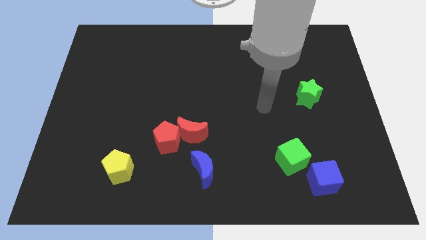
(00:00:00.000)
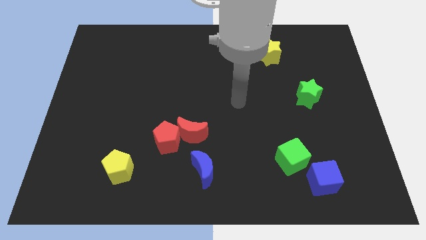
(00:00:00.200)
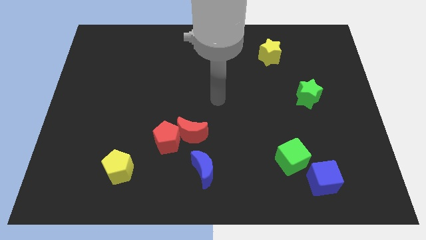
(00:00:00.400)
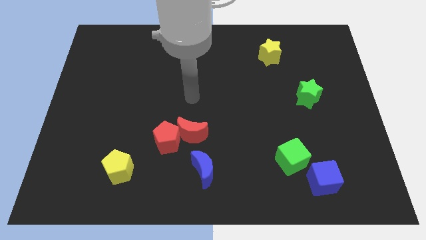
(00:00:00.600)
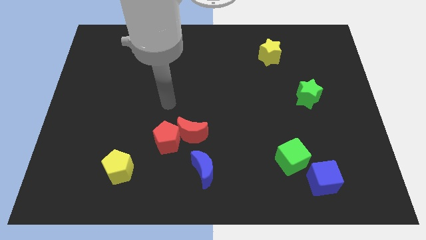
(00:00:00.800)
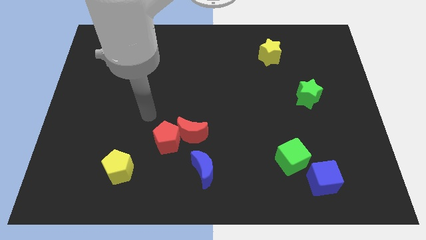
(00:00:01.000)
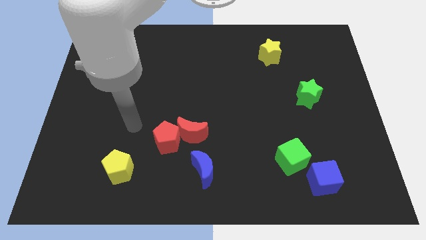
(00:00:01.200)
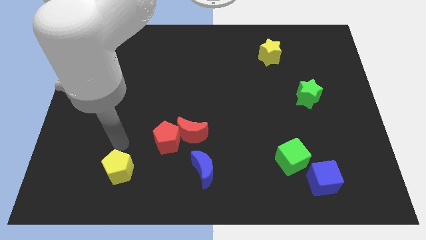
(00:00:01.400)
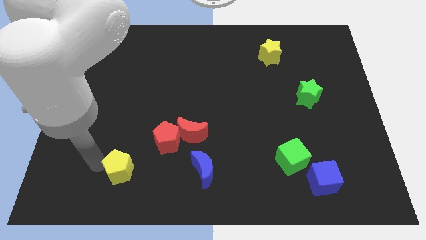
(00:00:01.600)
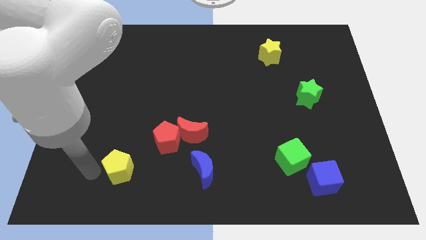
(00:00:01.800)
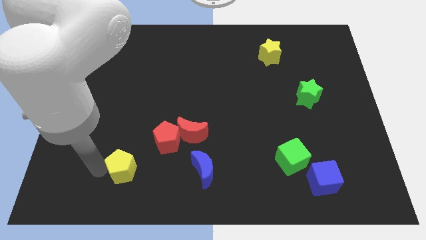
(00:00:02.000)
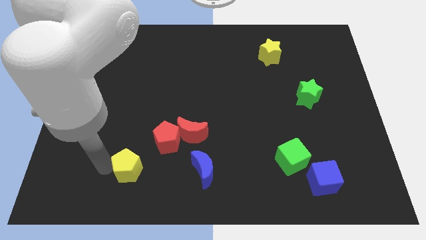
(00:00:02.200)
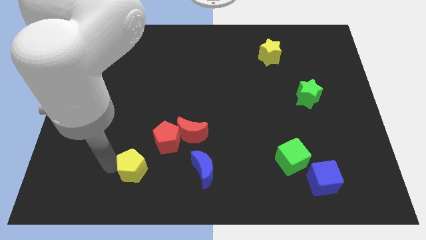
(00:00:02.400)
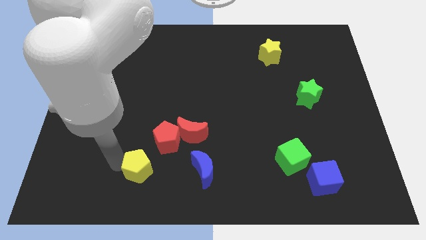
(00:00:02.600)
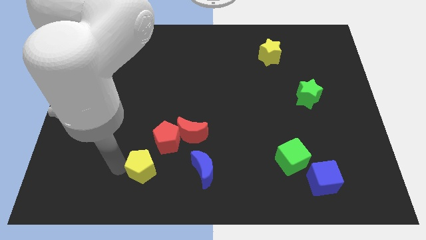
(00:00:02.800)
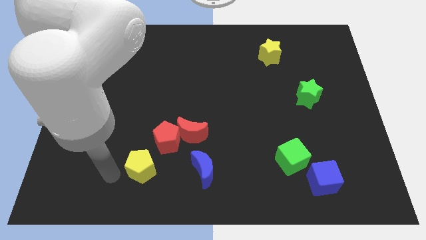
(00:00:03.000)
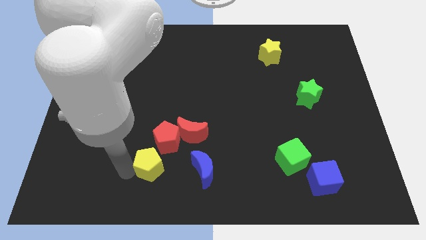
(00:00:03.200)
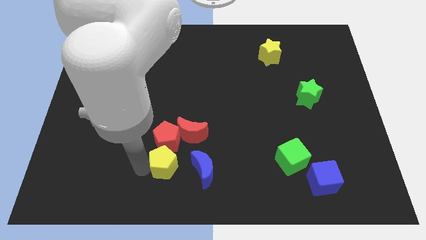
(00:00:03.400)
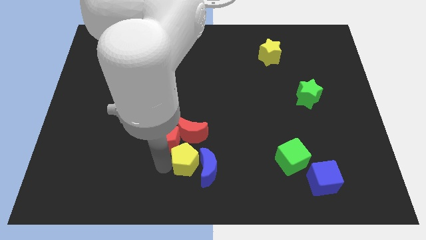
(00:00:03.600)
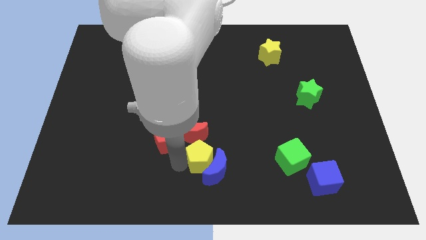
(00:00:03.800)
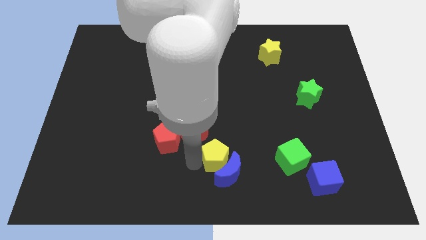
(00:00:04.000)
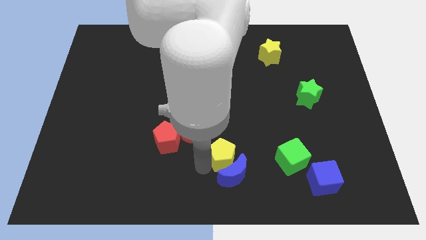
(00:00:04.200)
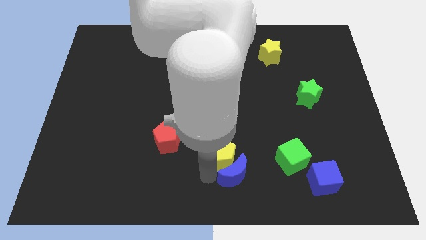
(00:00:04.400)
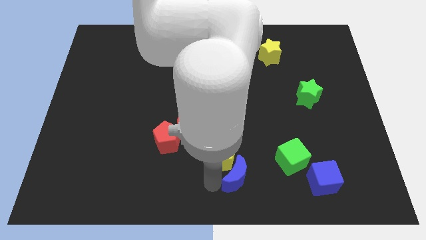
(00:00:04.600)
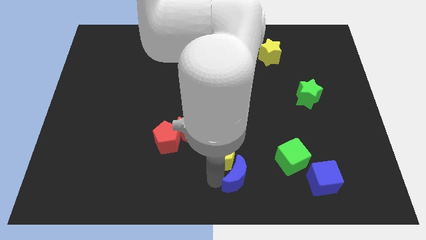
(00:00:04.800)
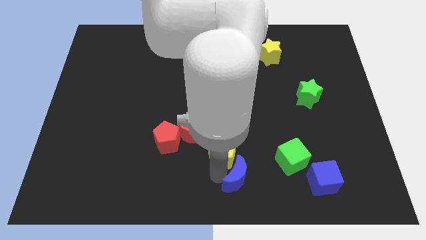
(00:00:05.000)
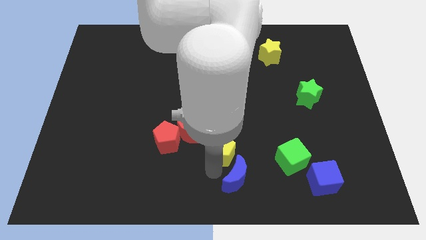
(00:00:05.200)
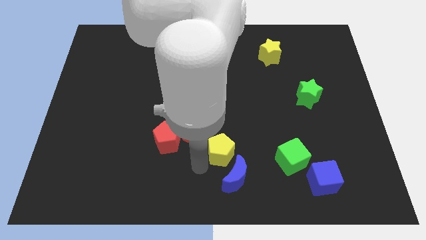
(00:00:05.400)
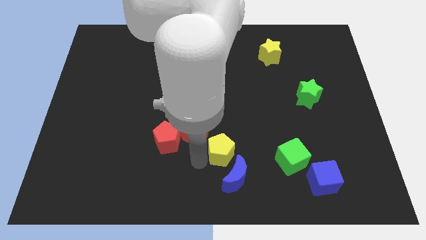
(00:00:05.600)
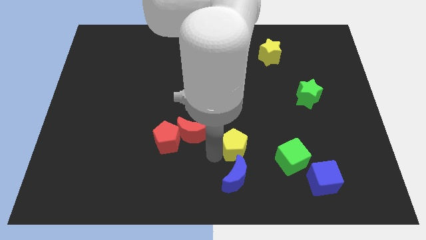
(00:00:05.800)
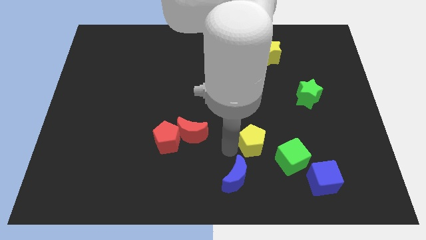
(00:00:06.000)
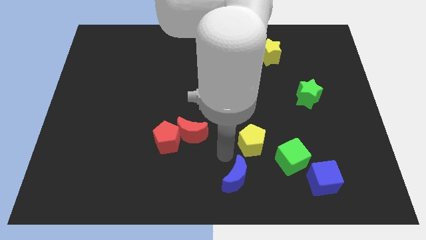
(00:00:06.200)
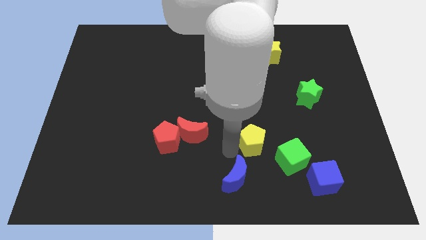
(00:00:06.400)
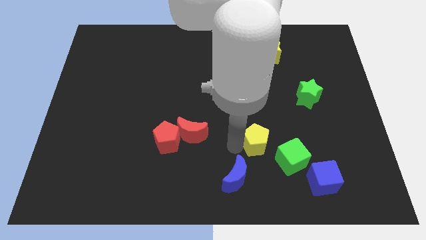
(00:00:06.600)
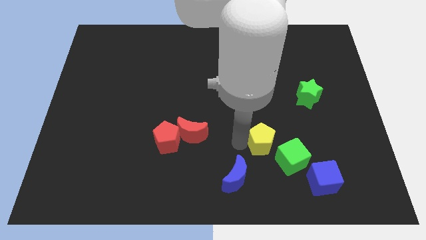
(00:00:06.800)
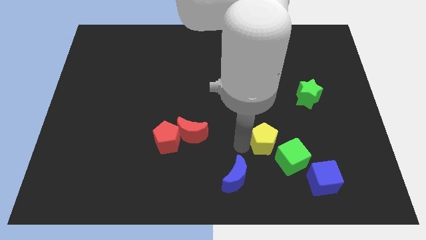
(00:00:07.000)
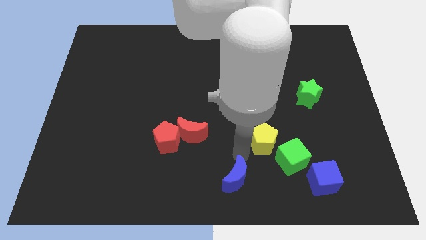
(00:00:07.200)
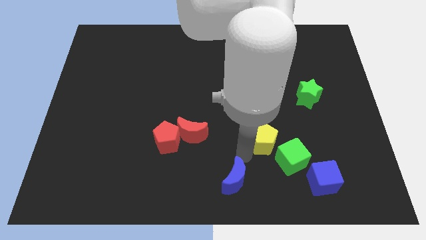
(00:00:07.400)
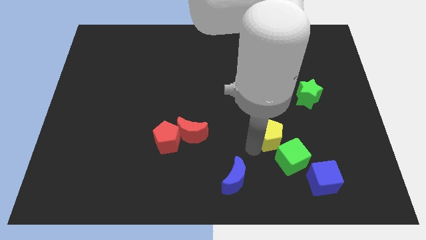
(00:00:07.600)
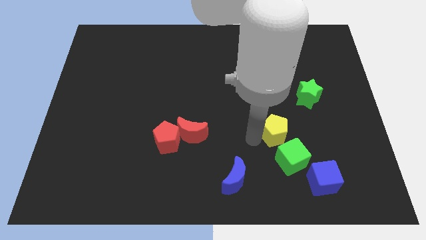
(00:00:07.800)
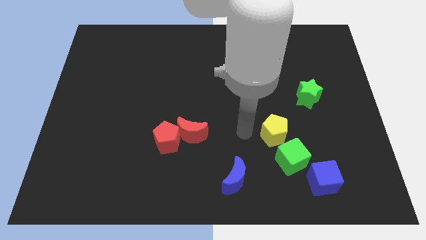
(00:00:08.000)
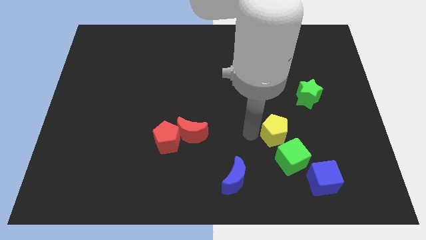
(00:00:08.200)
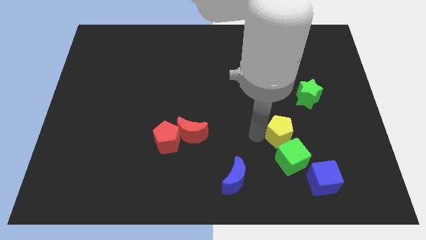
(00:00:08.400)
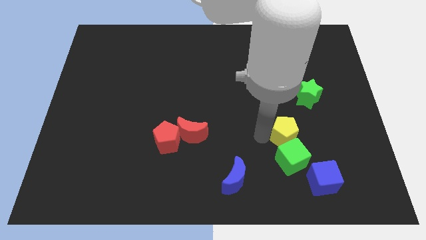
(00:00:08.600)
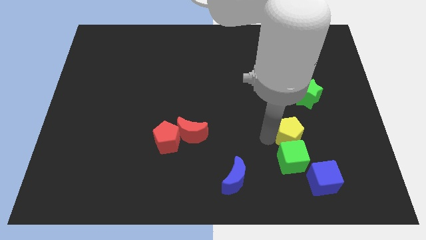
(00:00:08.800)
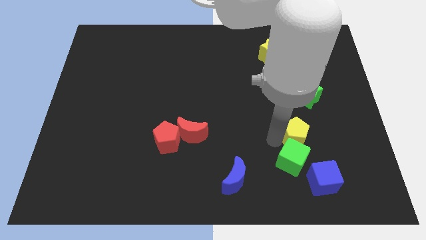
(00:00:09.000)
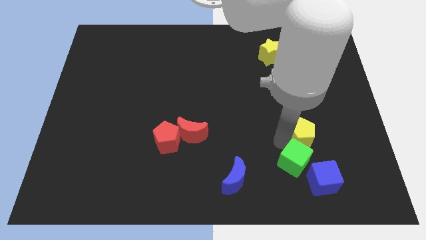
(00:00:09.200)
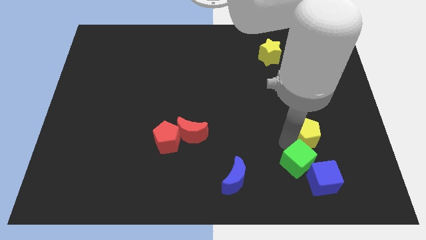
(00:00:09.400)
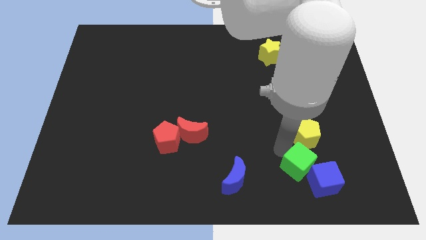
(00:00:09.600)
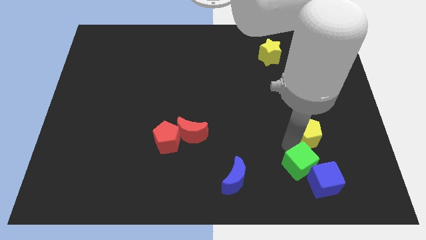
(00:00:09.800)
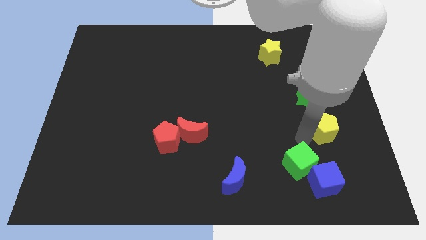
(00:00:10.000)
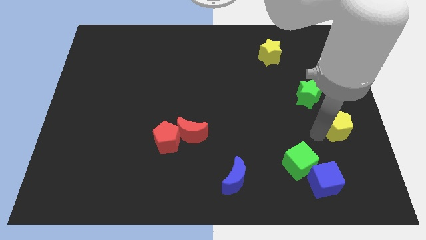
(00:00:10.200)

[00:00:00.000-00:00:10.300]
slide the yellow pentagon to the center right

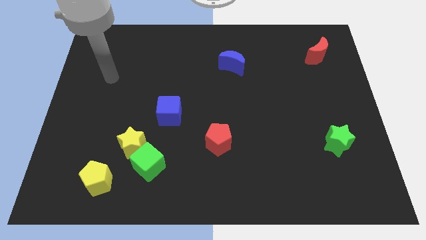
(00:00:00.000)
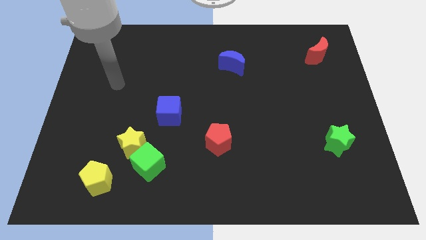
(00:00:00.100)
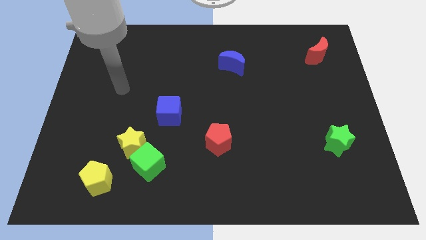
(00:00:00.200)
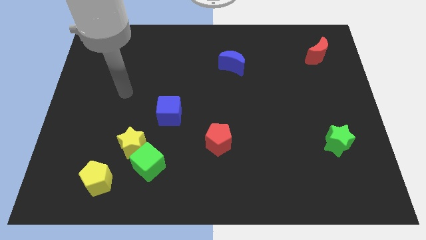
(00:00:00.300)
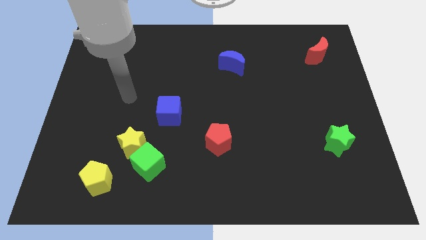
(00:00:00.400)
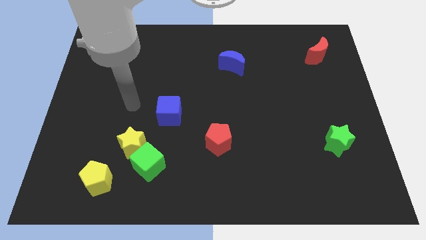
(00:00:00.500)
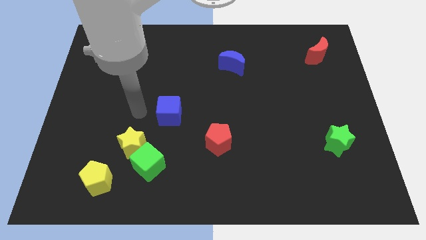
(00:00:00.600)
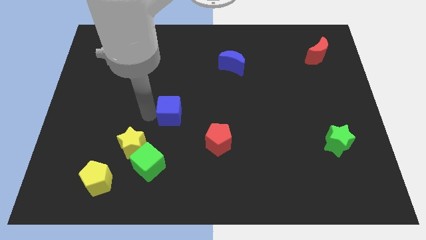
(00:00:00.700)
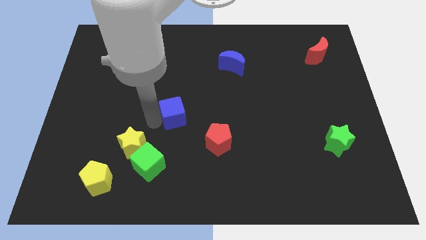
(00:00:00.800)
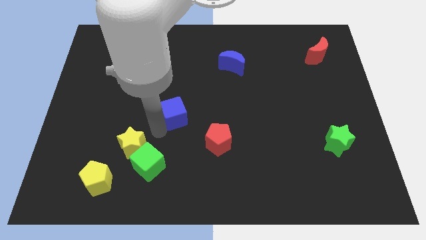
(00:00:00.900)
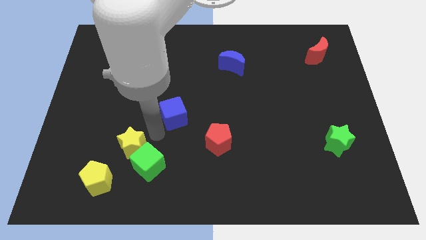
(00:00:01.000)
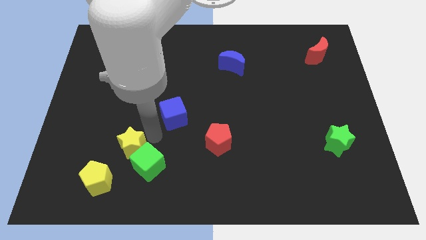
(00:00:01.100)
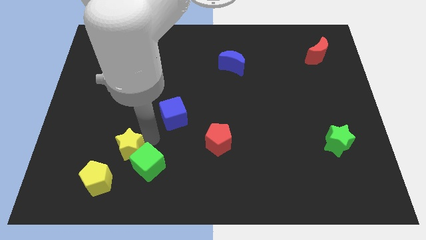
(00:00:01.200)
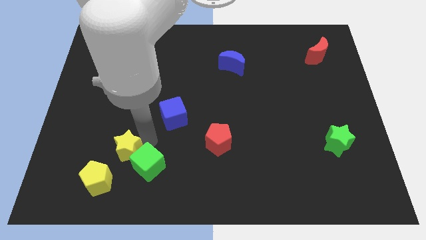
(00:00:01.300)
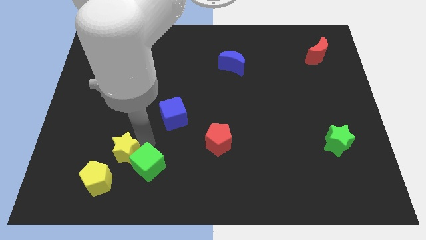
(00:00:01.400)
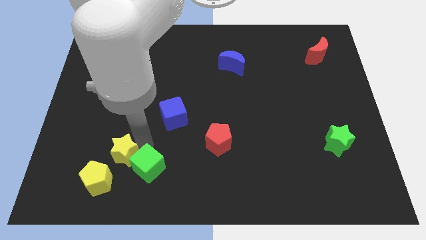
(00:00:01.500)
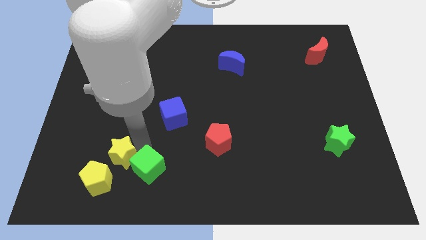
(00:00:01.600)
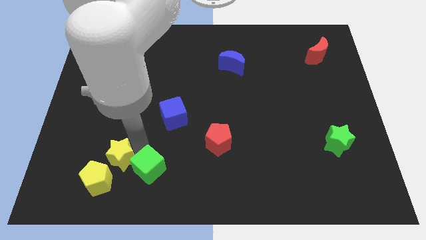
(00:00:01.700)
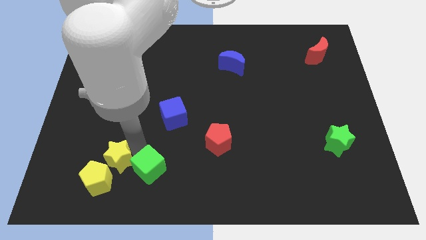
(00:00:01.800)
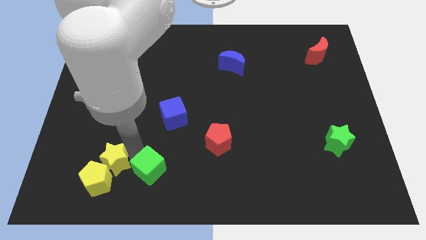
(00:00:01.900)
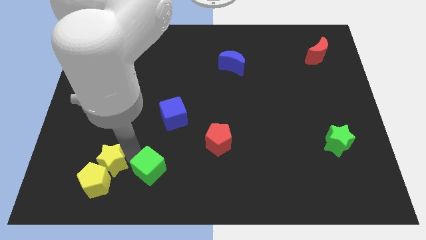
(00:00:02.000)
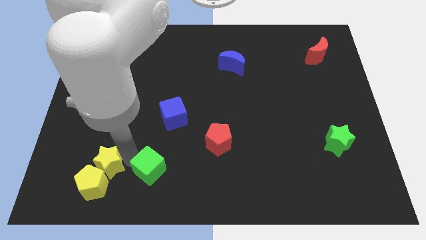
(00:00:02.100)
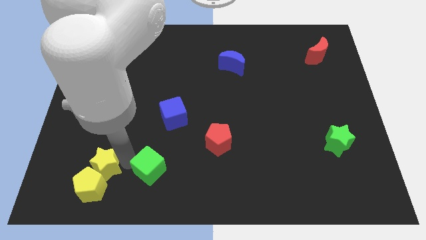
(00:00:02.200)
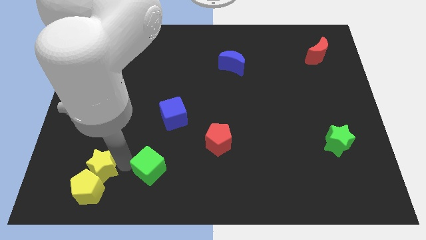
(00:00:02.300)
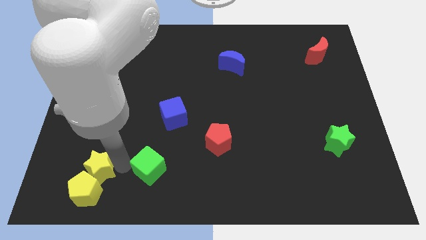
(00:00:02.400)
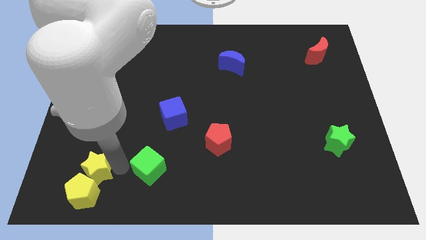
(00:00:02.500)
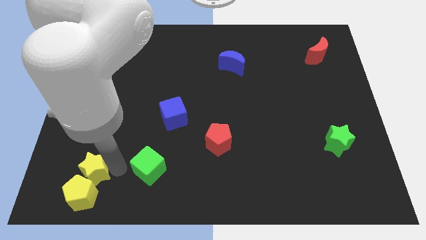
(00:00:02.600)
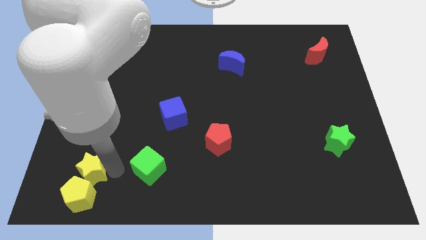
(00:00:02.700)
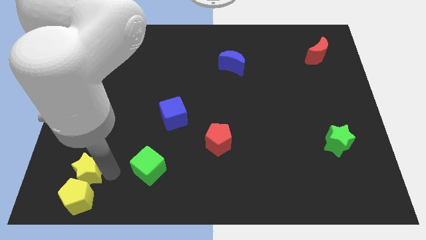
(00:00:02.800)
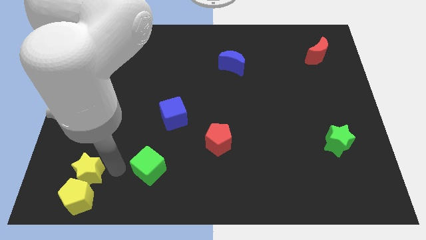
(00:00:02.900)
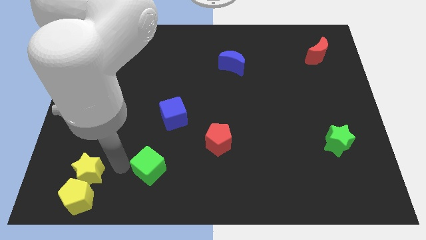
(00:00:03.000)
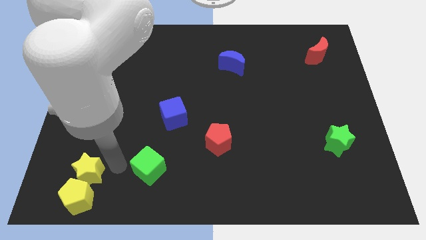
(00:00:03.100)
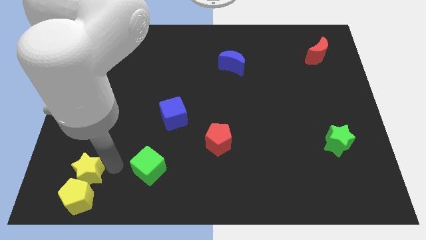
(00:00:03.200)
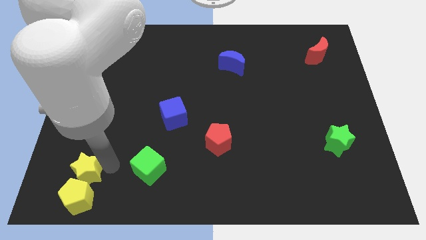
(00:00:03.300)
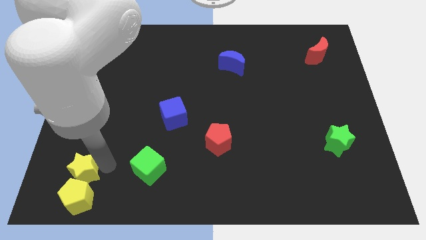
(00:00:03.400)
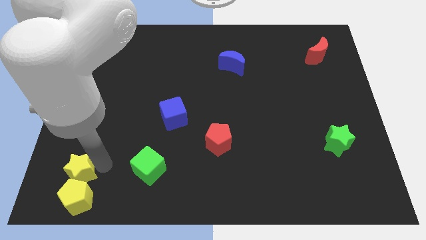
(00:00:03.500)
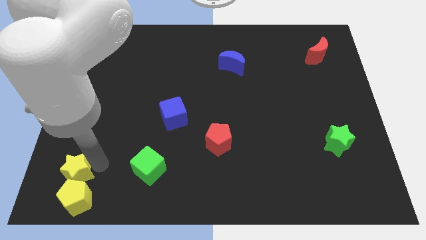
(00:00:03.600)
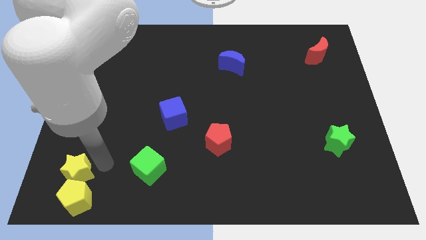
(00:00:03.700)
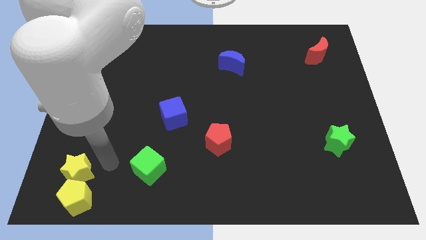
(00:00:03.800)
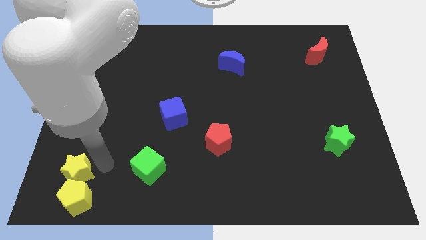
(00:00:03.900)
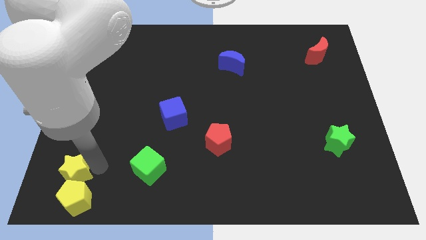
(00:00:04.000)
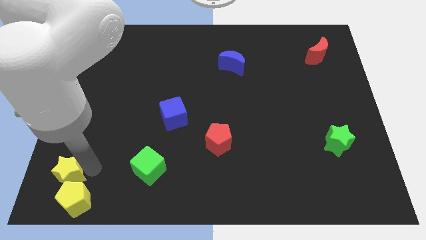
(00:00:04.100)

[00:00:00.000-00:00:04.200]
move the yellow star to the bottom left corner
